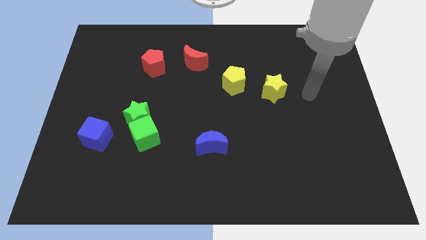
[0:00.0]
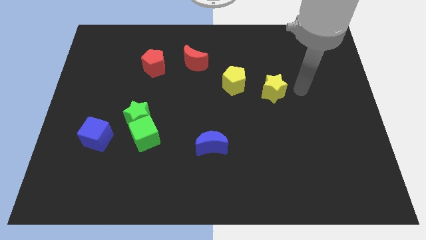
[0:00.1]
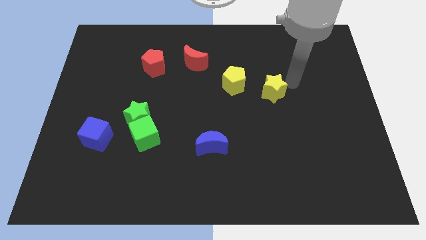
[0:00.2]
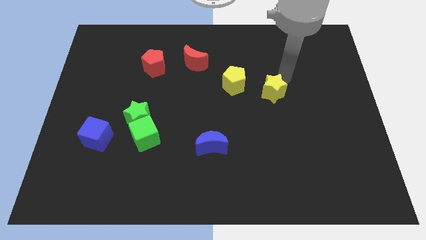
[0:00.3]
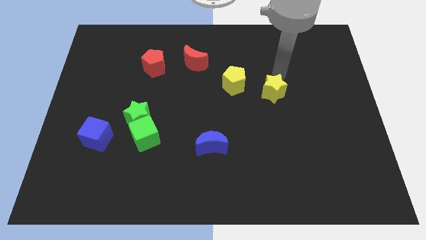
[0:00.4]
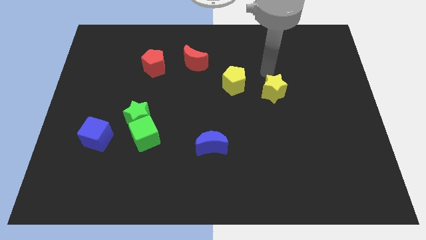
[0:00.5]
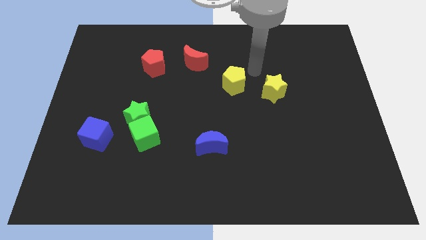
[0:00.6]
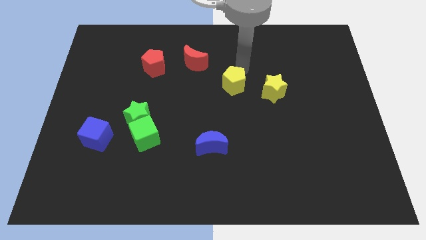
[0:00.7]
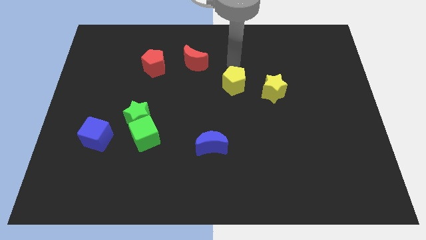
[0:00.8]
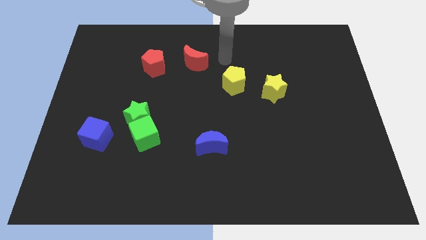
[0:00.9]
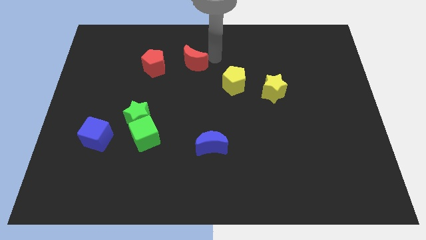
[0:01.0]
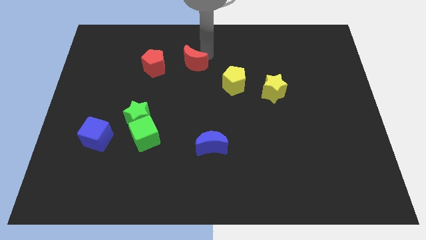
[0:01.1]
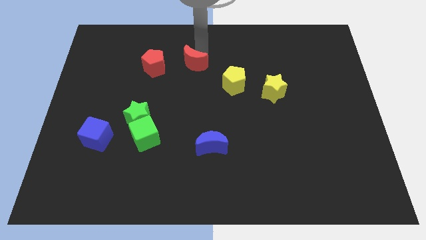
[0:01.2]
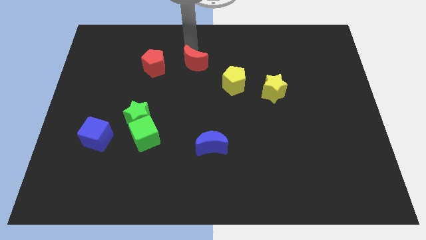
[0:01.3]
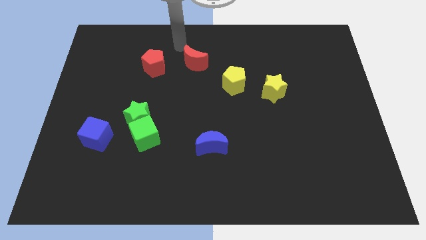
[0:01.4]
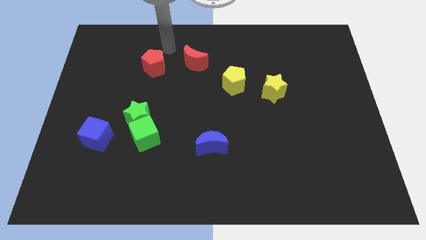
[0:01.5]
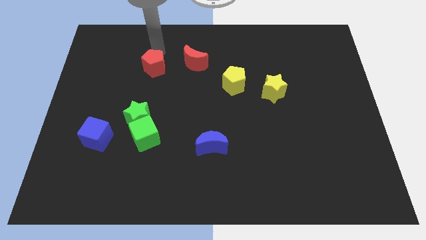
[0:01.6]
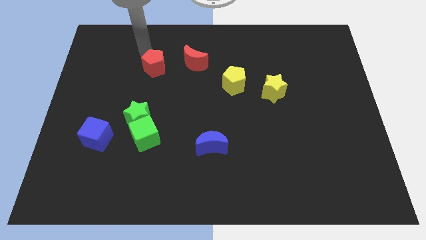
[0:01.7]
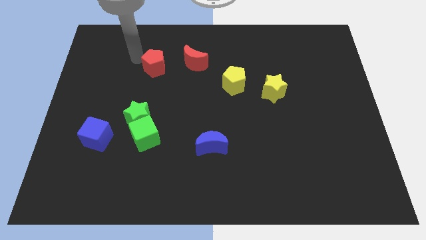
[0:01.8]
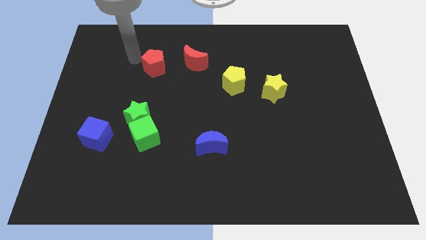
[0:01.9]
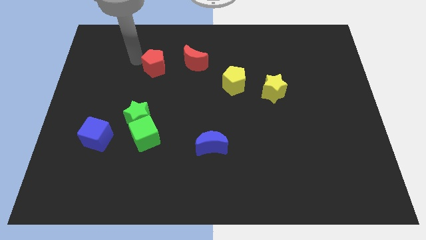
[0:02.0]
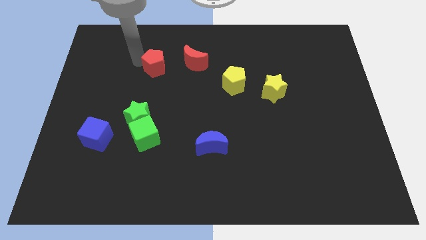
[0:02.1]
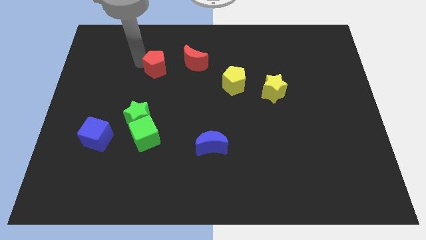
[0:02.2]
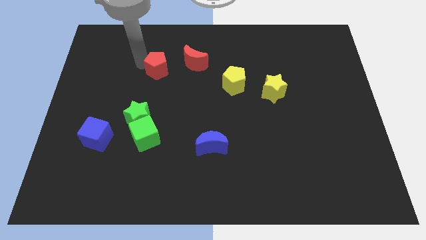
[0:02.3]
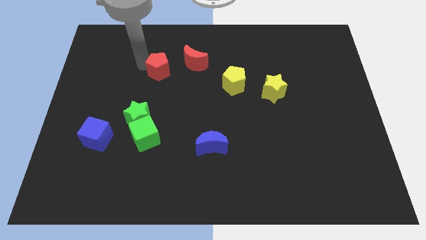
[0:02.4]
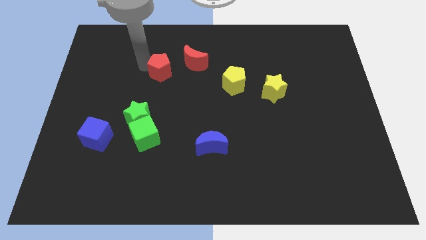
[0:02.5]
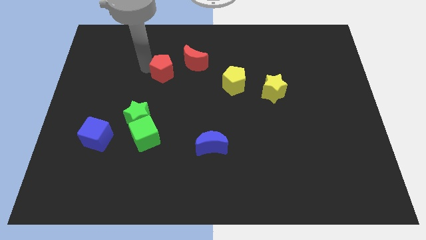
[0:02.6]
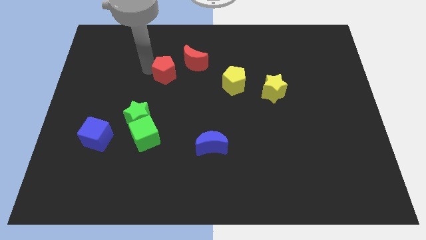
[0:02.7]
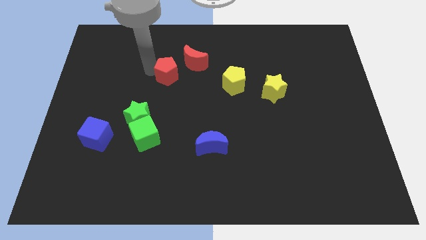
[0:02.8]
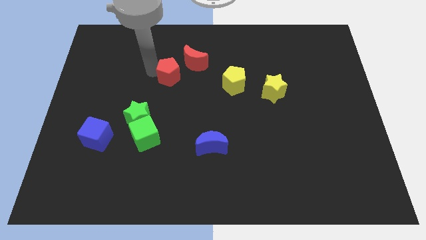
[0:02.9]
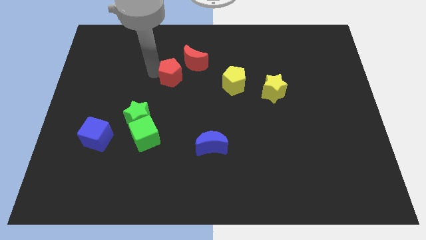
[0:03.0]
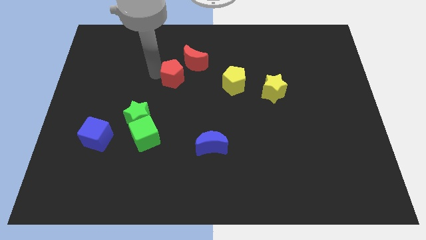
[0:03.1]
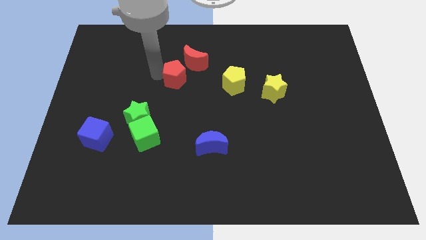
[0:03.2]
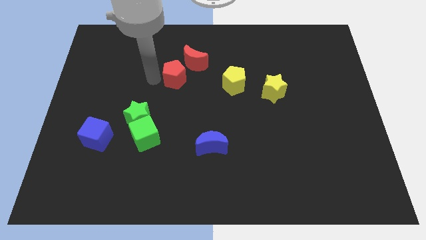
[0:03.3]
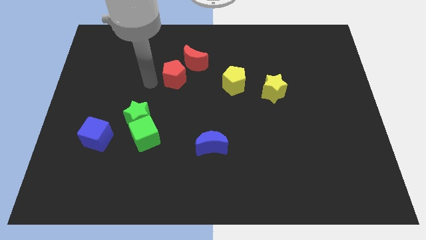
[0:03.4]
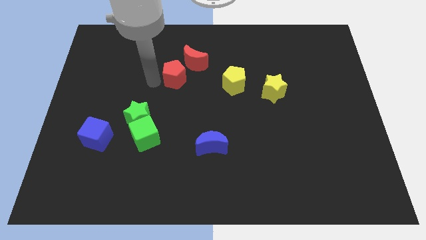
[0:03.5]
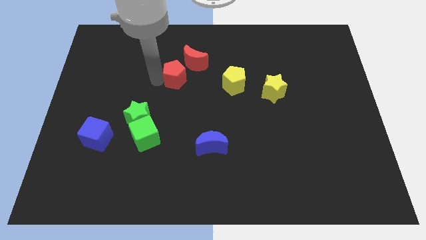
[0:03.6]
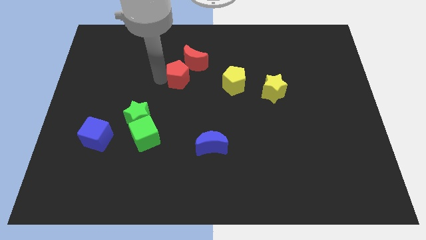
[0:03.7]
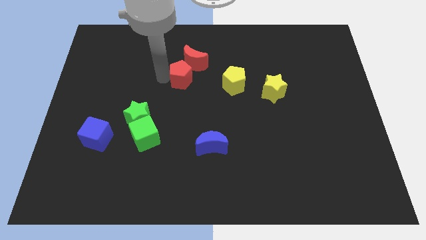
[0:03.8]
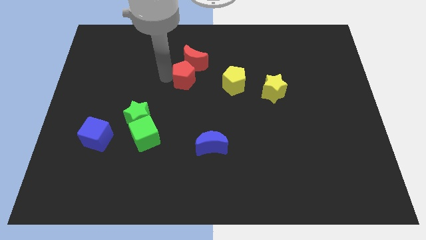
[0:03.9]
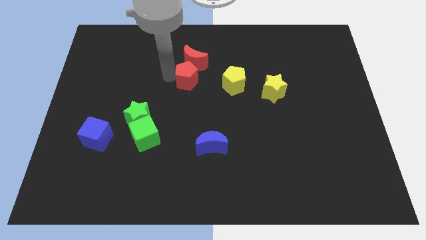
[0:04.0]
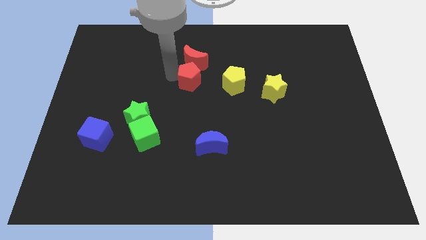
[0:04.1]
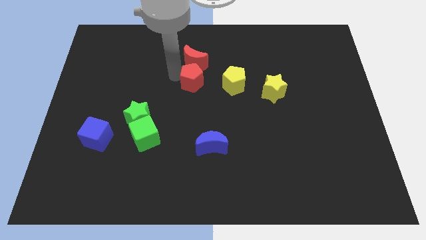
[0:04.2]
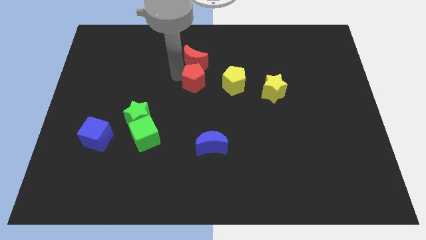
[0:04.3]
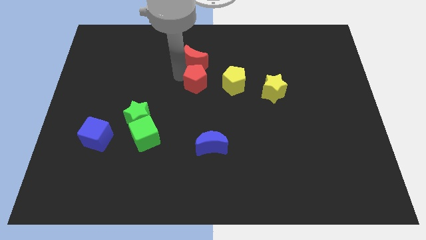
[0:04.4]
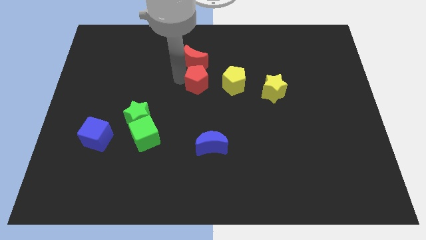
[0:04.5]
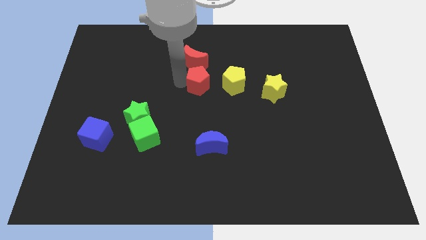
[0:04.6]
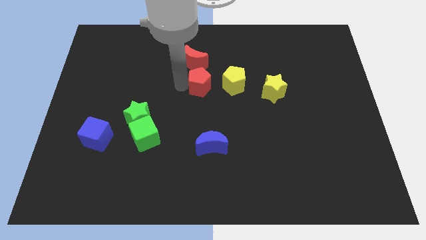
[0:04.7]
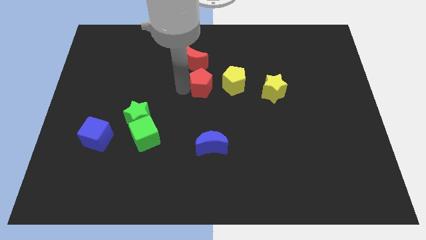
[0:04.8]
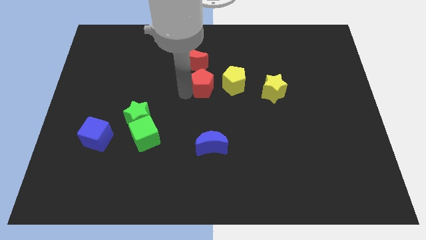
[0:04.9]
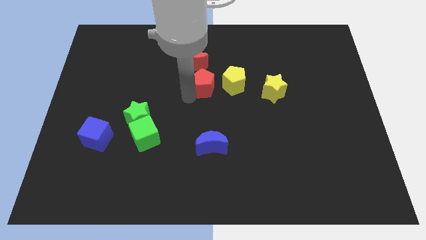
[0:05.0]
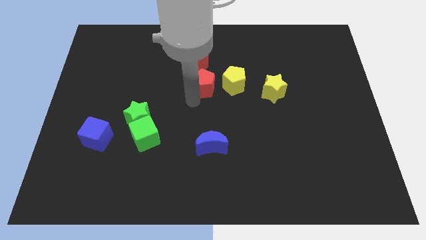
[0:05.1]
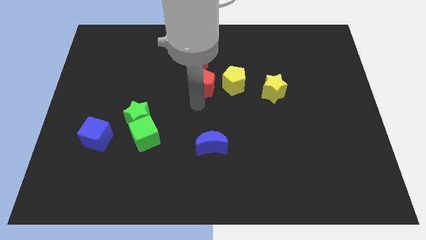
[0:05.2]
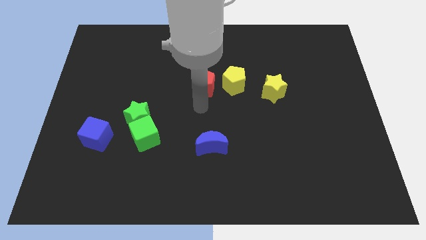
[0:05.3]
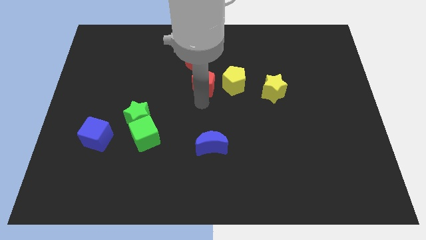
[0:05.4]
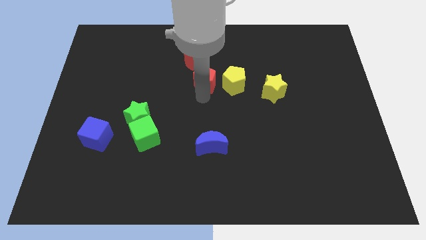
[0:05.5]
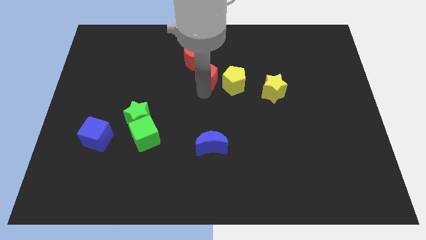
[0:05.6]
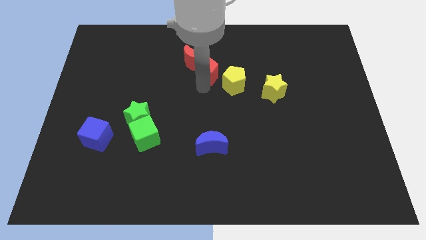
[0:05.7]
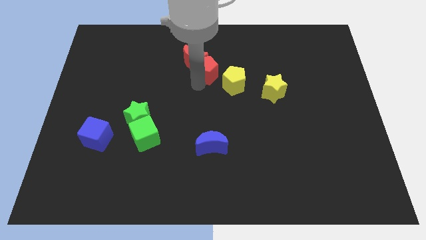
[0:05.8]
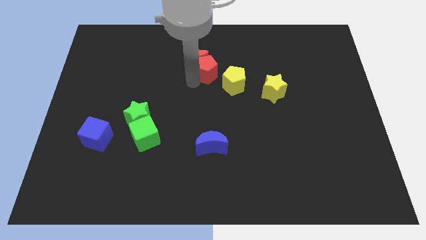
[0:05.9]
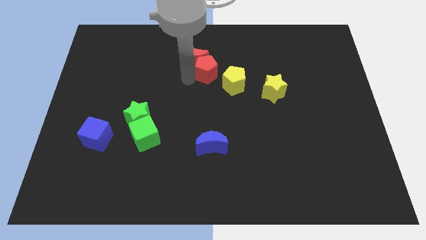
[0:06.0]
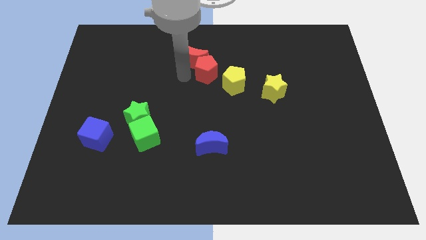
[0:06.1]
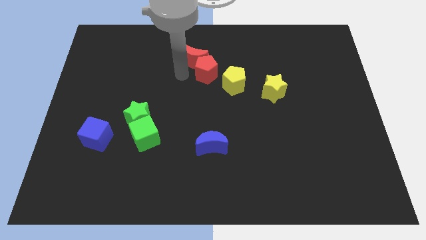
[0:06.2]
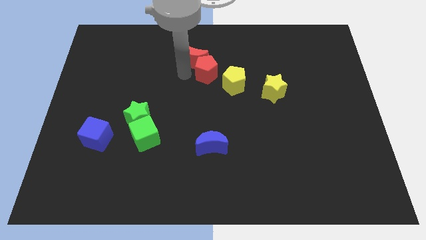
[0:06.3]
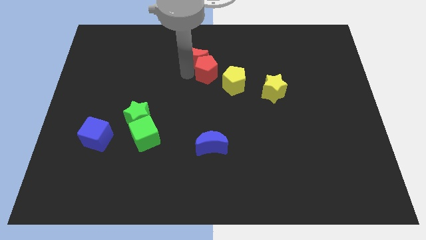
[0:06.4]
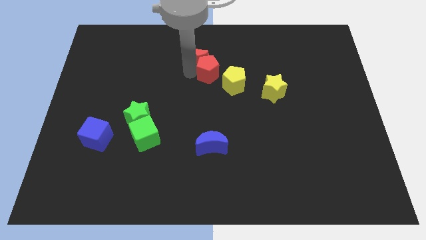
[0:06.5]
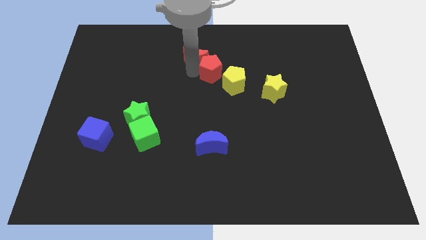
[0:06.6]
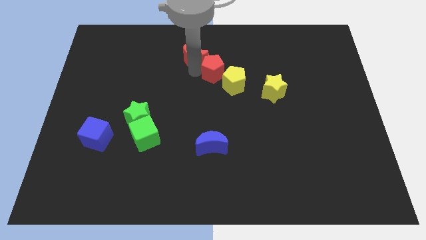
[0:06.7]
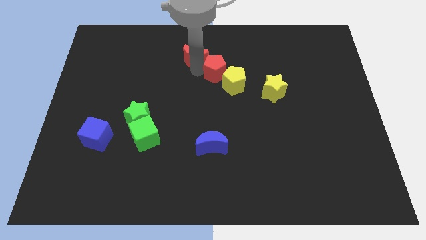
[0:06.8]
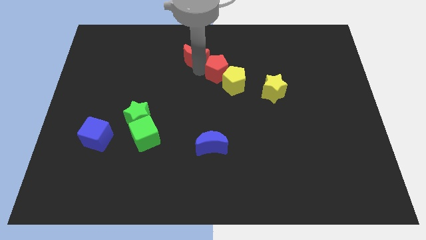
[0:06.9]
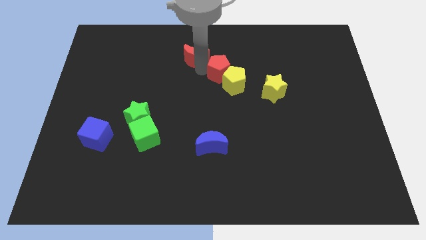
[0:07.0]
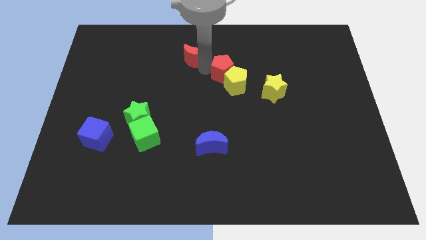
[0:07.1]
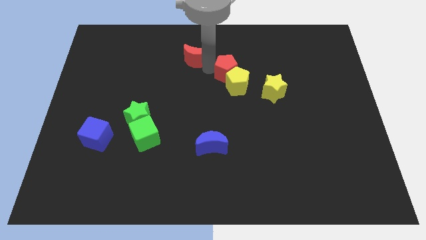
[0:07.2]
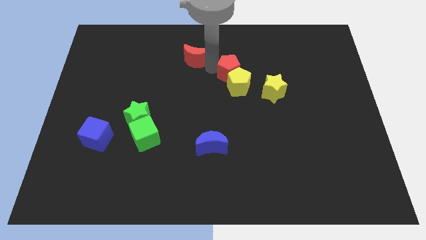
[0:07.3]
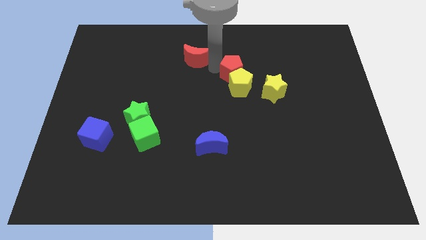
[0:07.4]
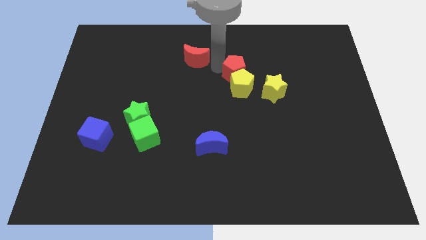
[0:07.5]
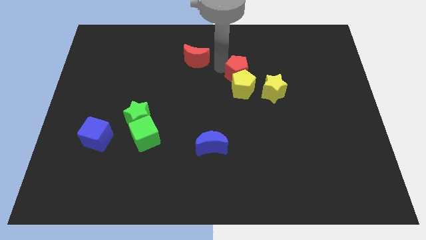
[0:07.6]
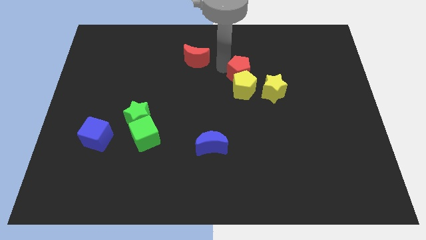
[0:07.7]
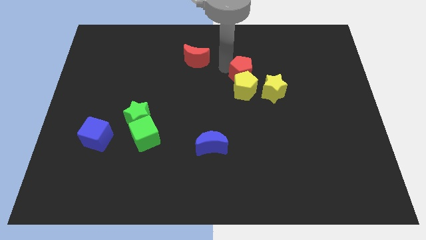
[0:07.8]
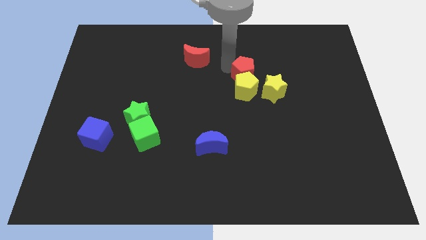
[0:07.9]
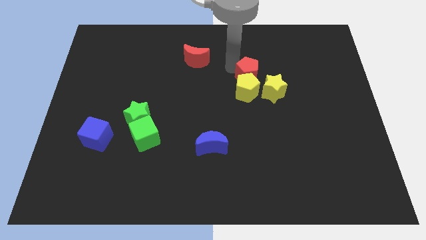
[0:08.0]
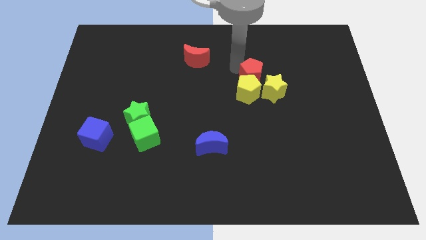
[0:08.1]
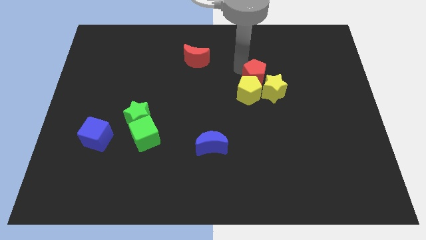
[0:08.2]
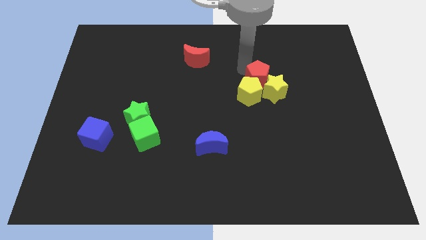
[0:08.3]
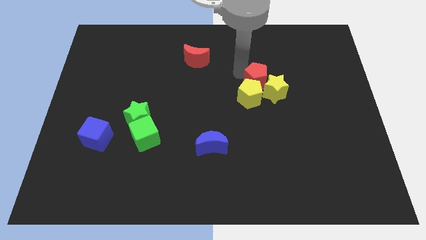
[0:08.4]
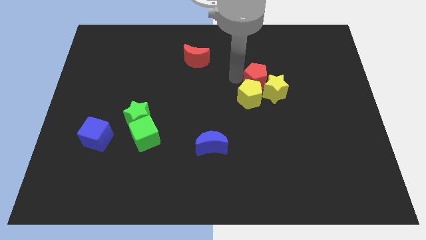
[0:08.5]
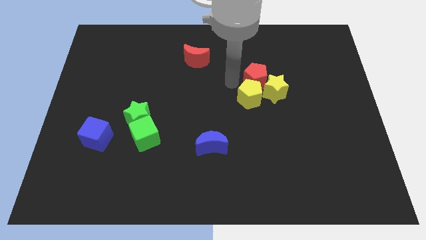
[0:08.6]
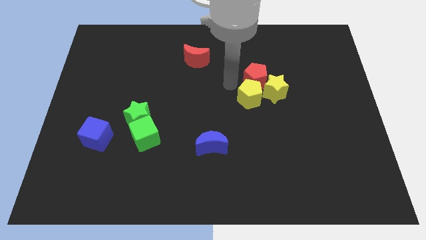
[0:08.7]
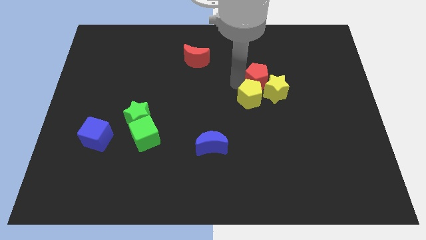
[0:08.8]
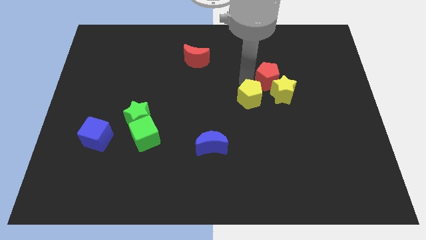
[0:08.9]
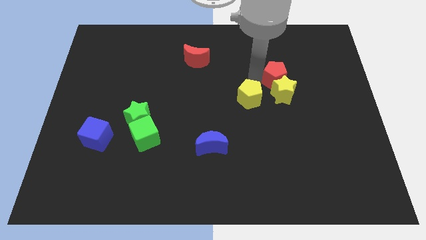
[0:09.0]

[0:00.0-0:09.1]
push the red pentagon to the top right of the yellow star
